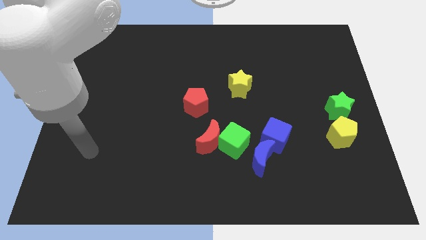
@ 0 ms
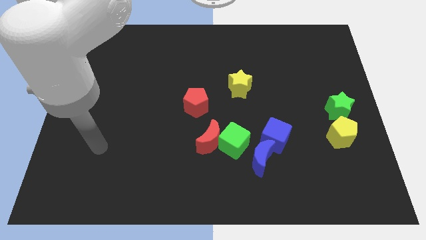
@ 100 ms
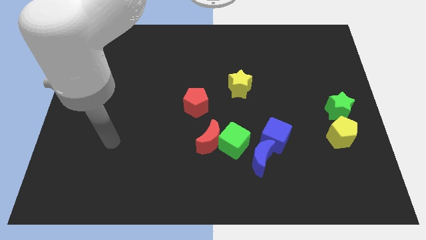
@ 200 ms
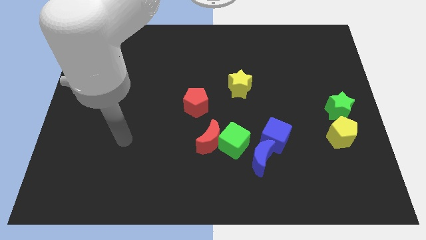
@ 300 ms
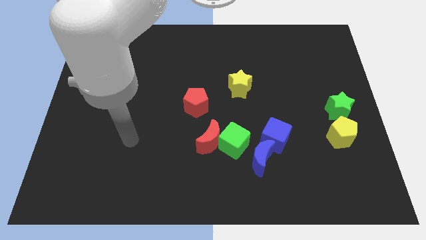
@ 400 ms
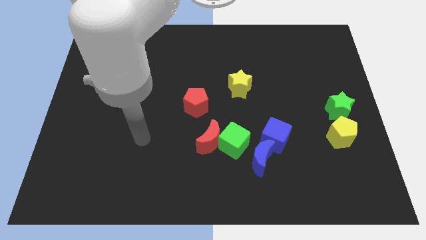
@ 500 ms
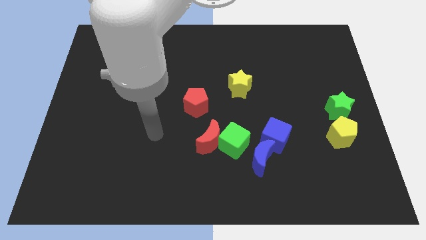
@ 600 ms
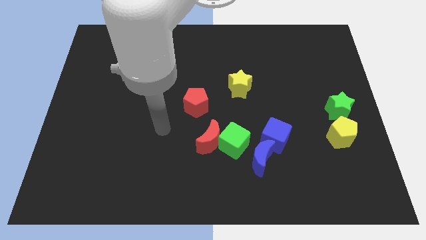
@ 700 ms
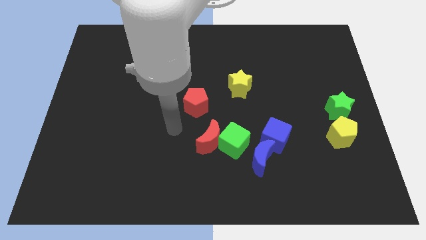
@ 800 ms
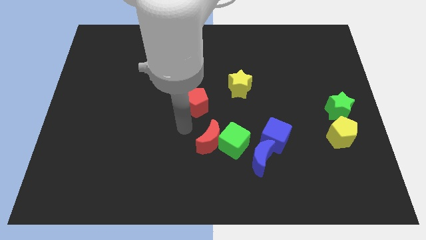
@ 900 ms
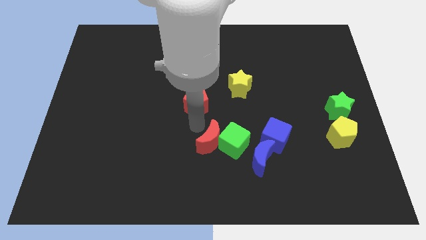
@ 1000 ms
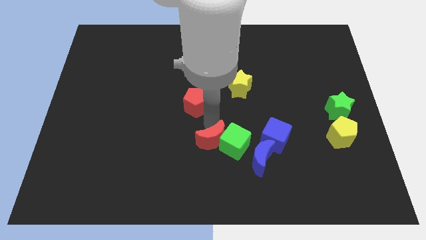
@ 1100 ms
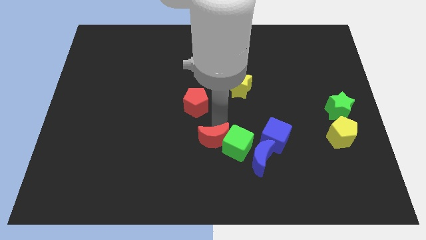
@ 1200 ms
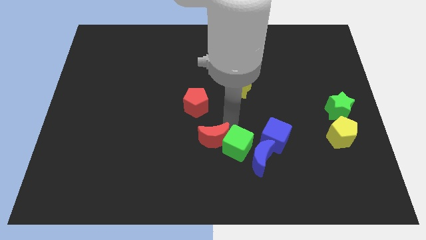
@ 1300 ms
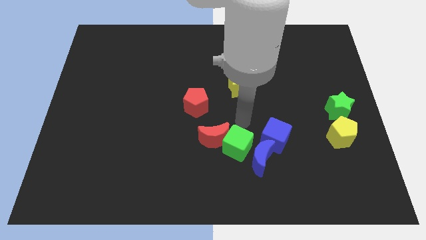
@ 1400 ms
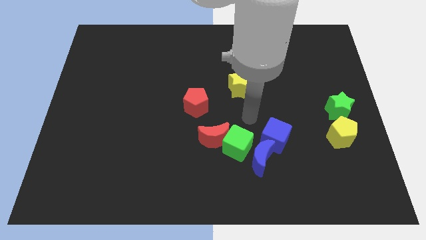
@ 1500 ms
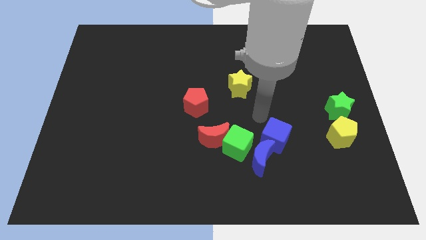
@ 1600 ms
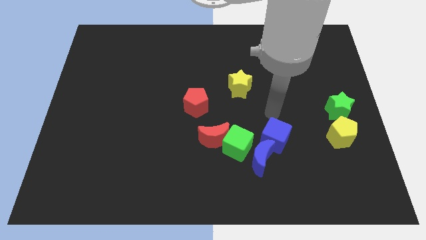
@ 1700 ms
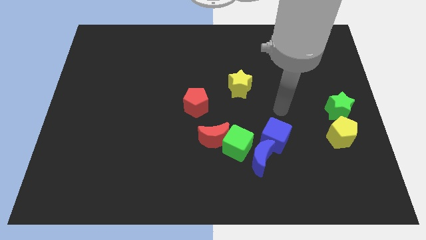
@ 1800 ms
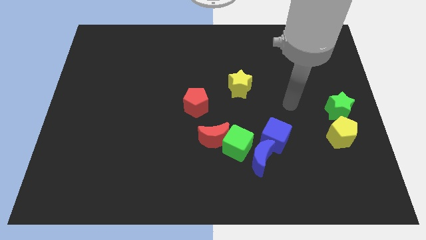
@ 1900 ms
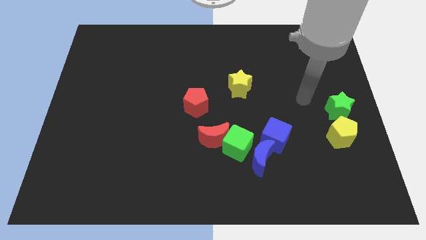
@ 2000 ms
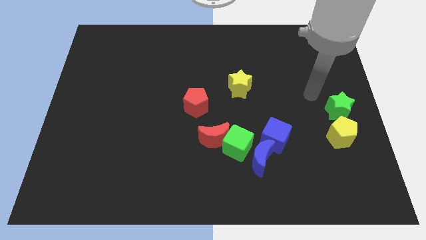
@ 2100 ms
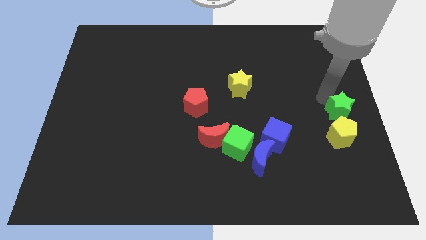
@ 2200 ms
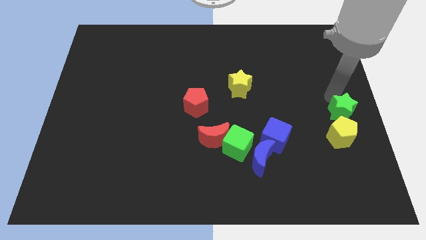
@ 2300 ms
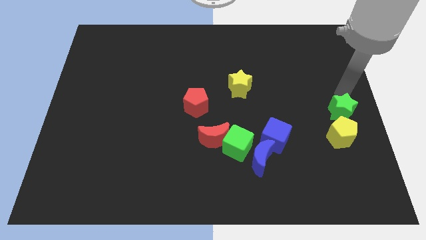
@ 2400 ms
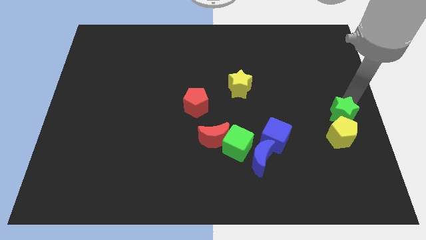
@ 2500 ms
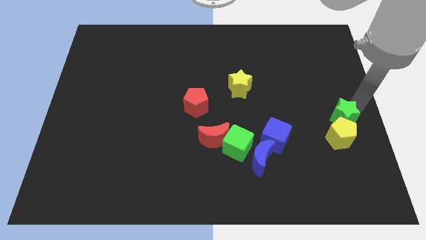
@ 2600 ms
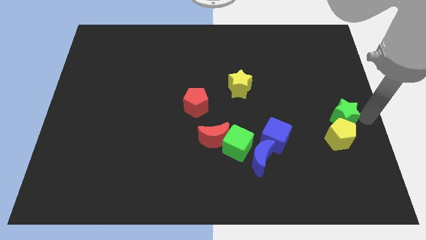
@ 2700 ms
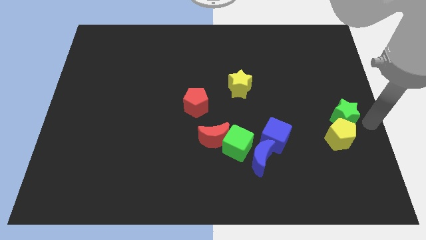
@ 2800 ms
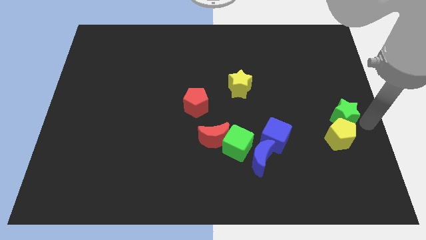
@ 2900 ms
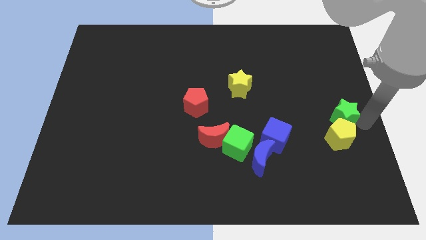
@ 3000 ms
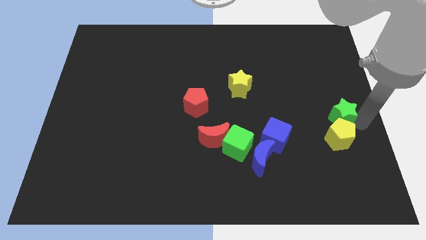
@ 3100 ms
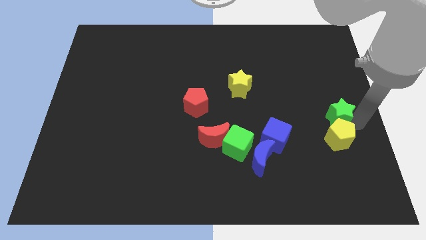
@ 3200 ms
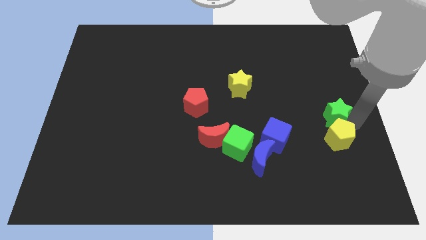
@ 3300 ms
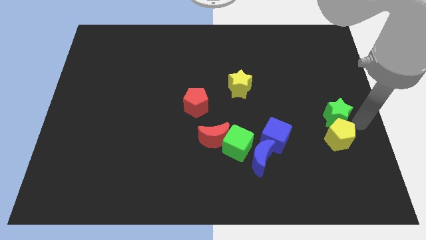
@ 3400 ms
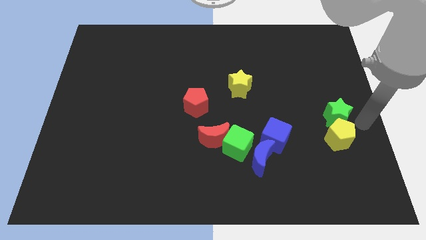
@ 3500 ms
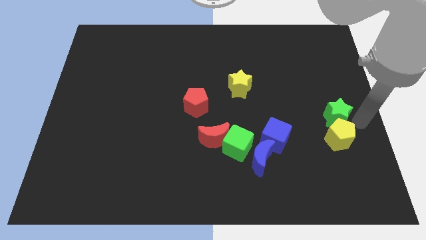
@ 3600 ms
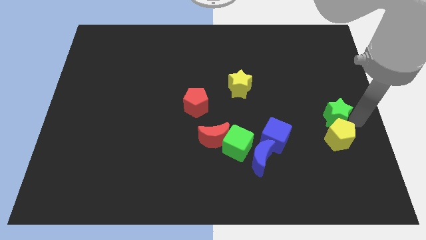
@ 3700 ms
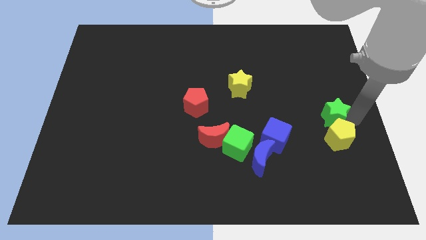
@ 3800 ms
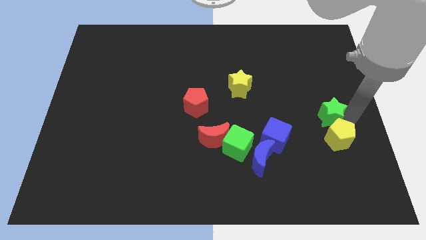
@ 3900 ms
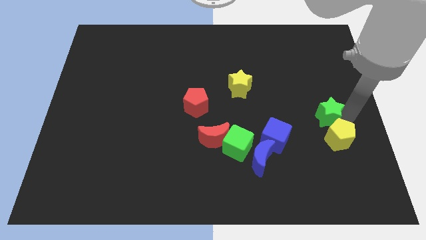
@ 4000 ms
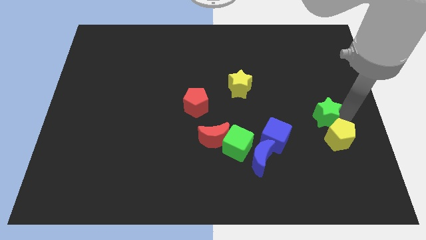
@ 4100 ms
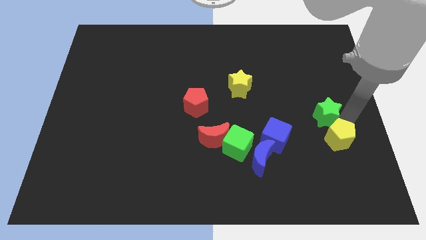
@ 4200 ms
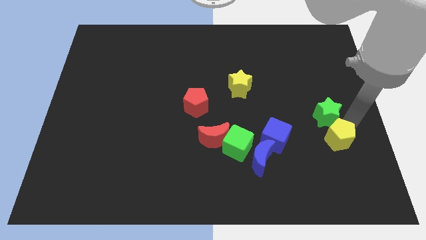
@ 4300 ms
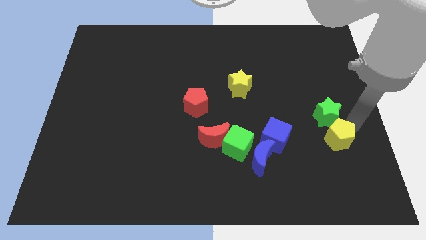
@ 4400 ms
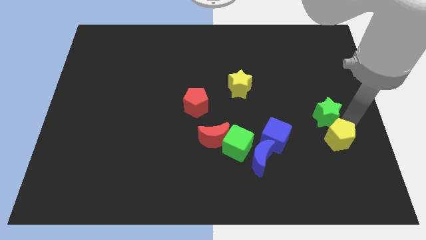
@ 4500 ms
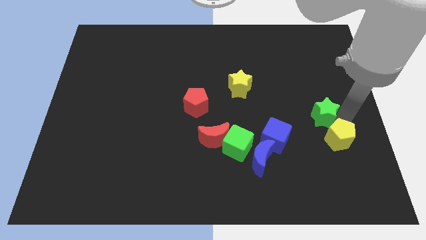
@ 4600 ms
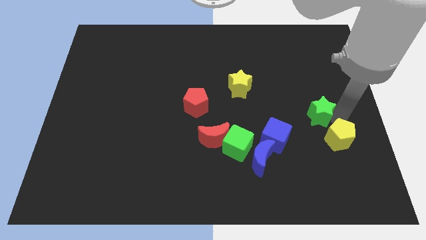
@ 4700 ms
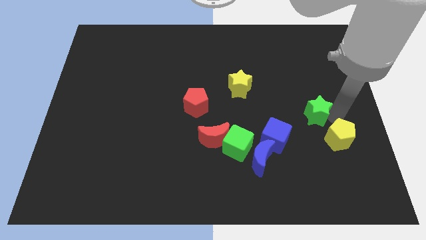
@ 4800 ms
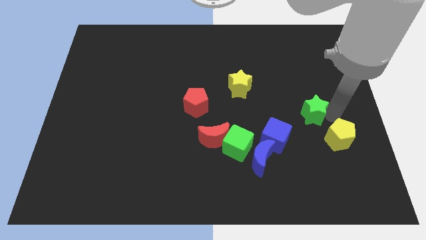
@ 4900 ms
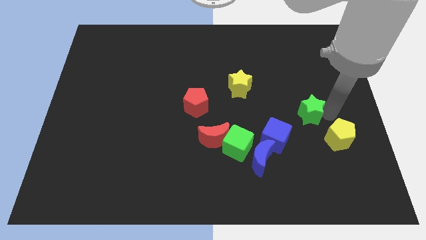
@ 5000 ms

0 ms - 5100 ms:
slightly move the green star to the left

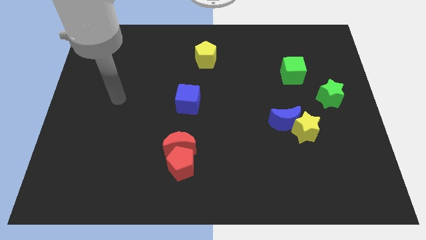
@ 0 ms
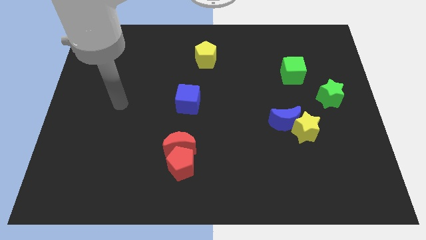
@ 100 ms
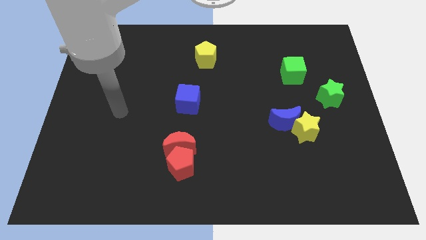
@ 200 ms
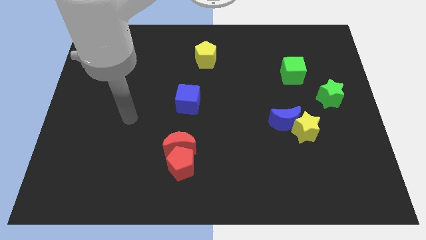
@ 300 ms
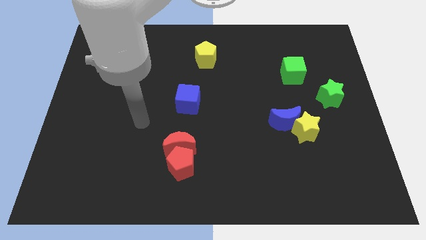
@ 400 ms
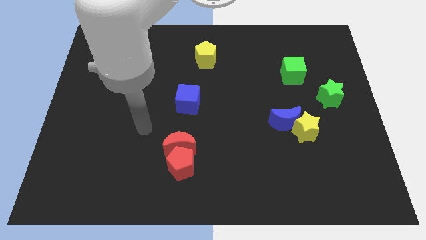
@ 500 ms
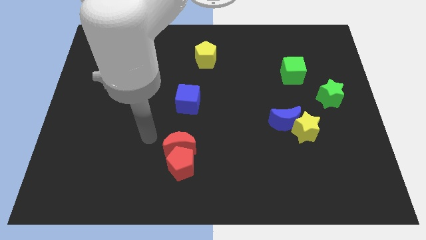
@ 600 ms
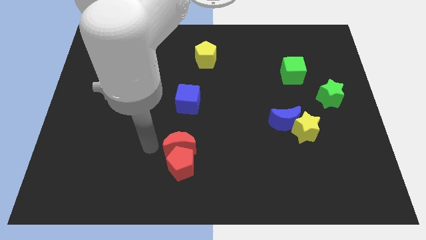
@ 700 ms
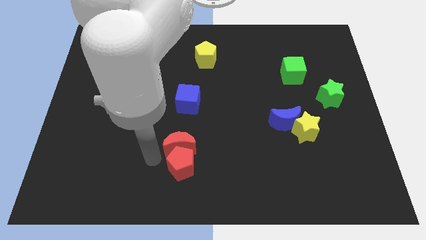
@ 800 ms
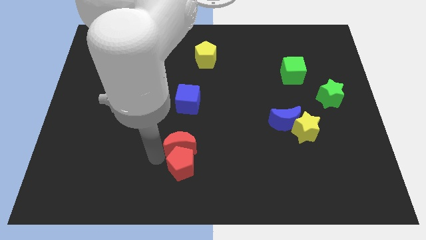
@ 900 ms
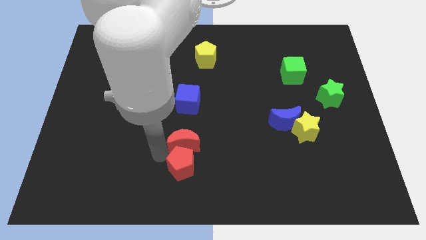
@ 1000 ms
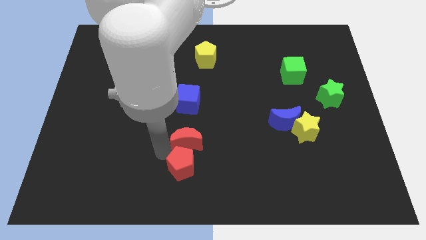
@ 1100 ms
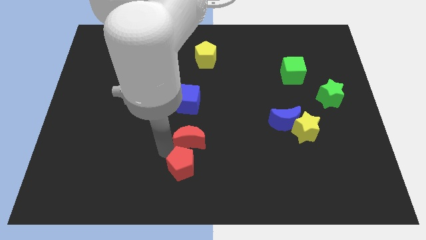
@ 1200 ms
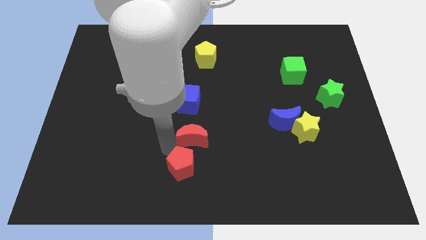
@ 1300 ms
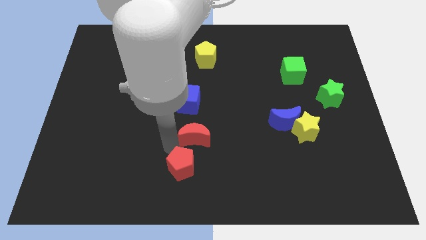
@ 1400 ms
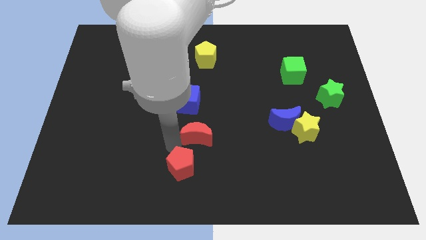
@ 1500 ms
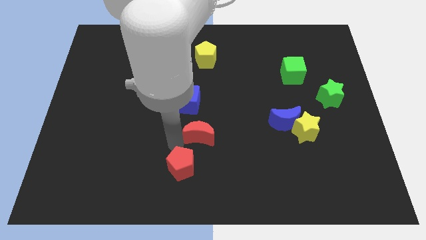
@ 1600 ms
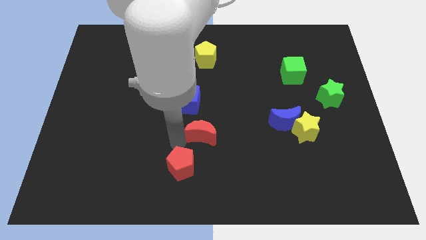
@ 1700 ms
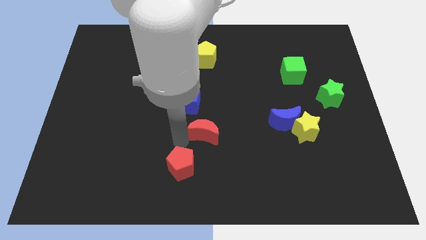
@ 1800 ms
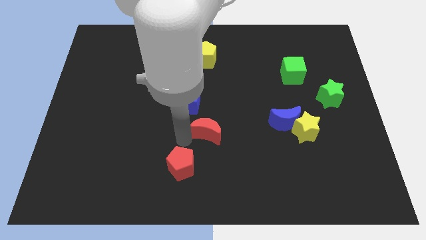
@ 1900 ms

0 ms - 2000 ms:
move the red moon slightly up and right

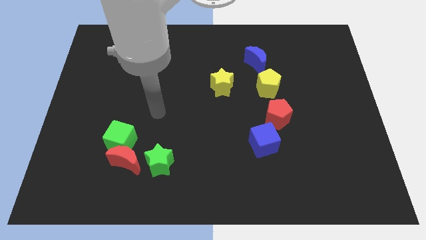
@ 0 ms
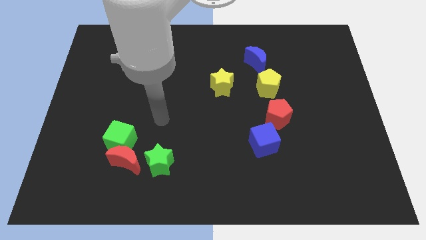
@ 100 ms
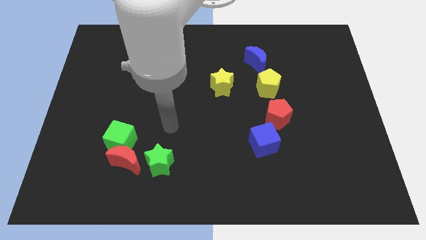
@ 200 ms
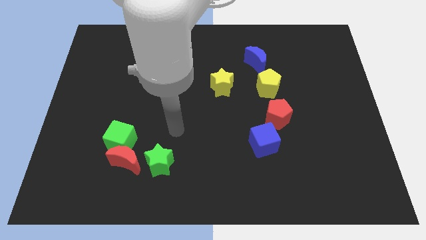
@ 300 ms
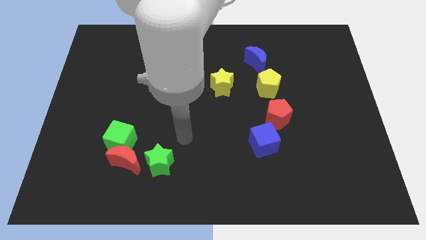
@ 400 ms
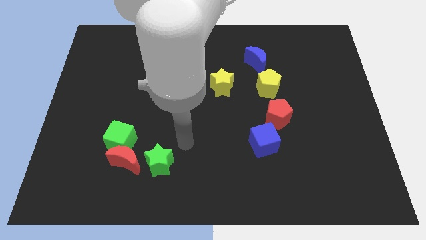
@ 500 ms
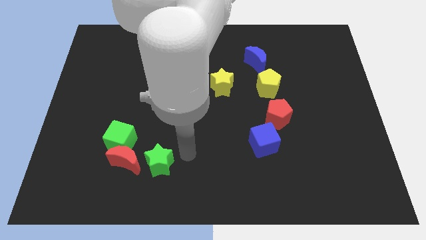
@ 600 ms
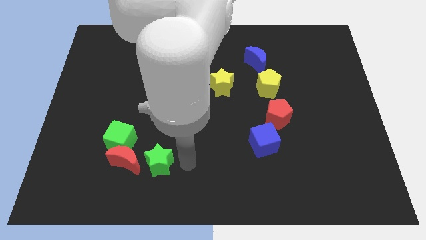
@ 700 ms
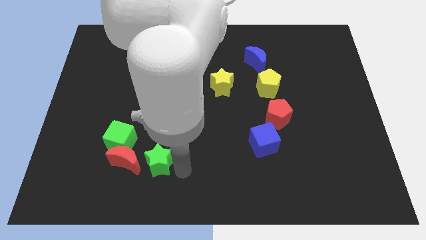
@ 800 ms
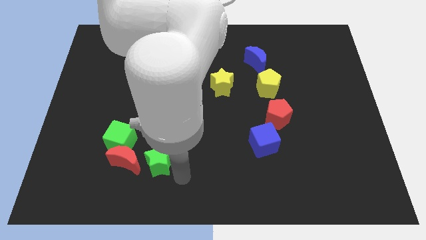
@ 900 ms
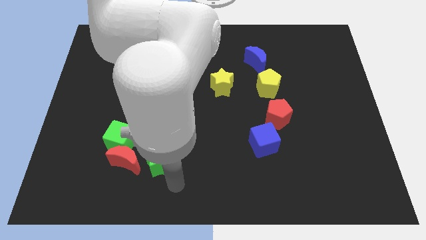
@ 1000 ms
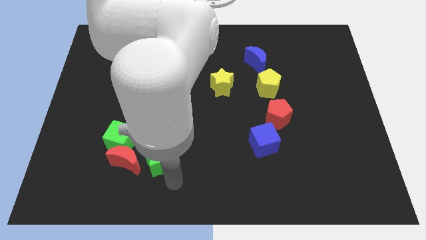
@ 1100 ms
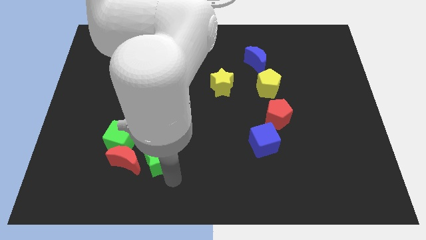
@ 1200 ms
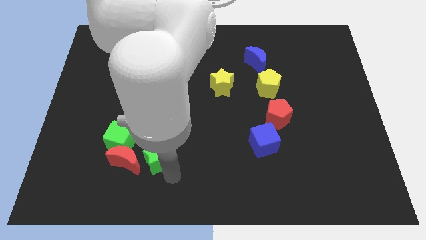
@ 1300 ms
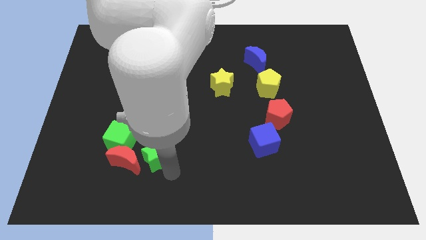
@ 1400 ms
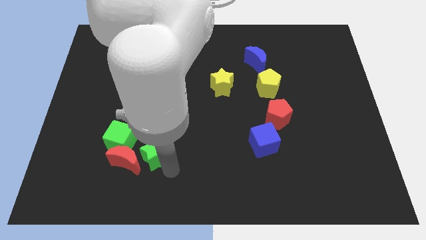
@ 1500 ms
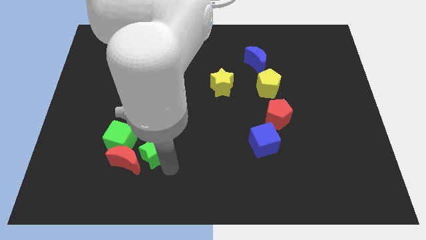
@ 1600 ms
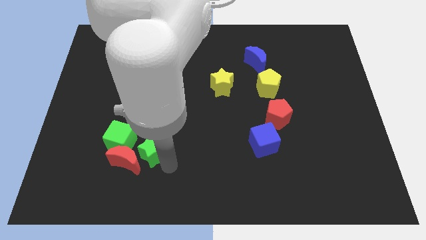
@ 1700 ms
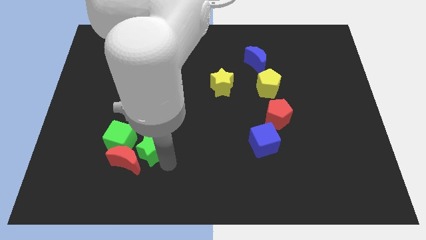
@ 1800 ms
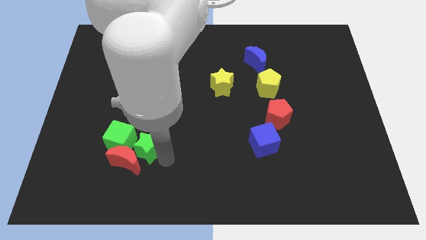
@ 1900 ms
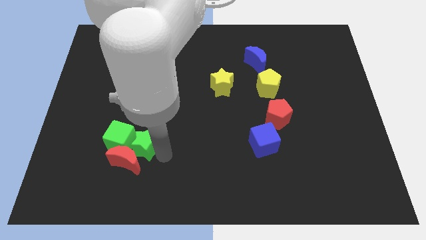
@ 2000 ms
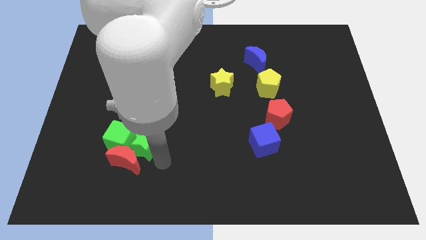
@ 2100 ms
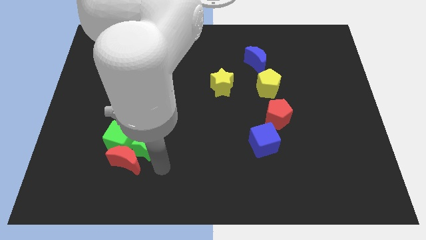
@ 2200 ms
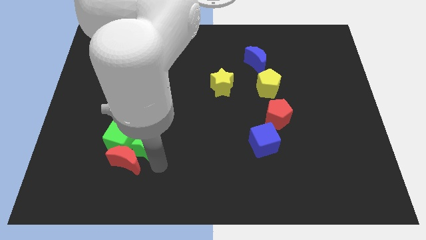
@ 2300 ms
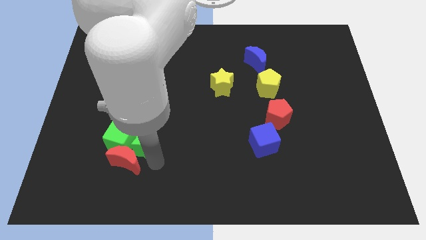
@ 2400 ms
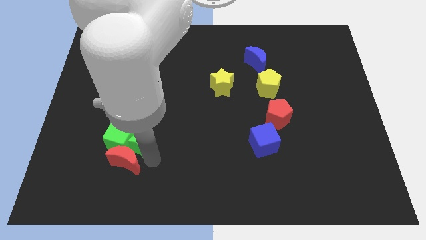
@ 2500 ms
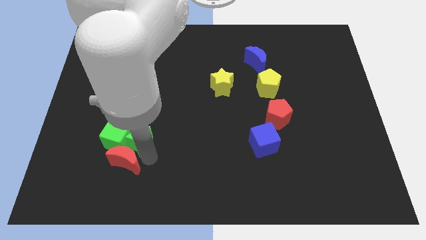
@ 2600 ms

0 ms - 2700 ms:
push the green star up and to the left diagonally a little
